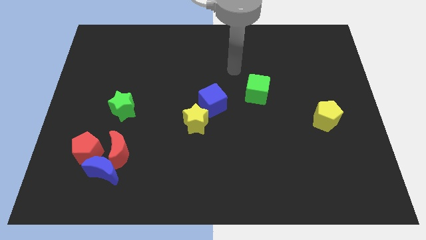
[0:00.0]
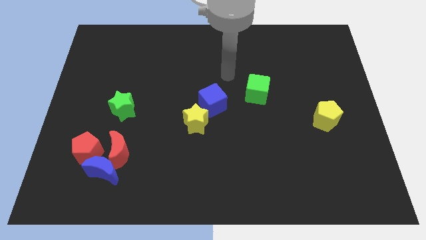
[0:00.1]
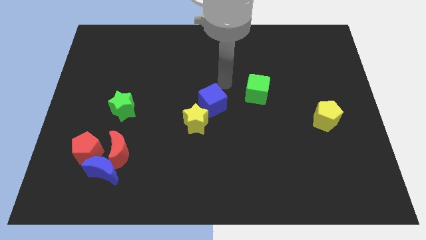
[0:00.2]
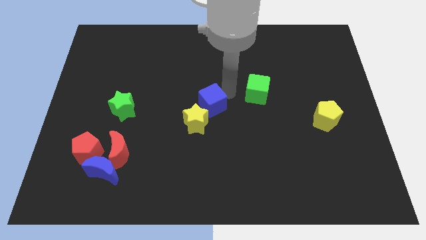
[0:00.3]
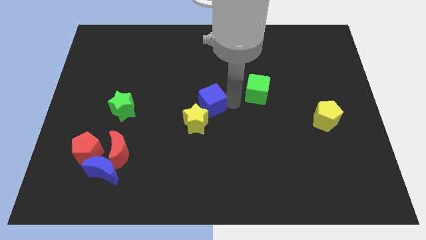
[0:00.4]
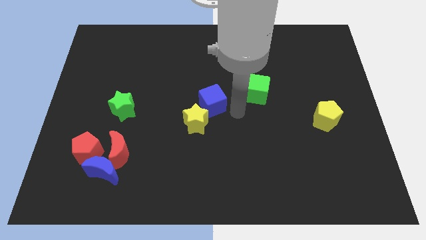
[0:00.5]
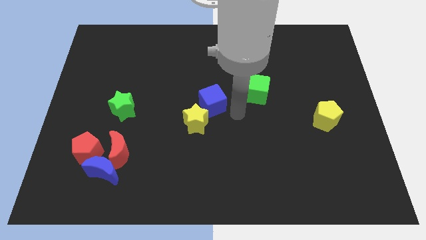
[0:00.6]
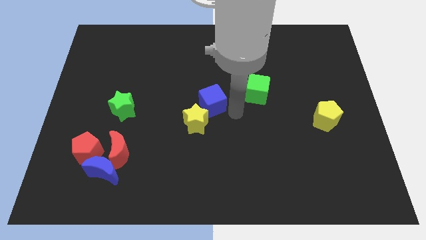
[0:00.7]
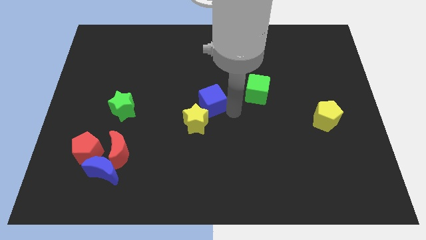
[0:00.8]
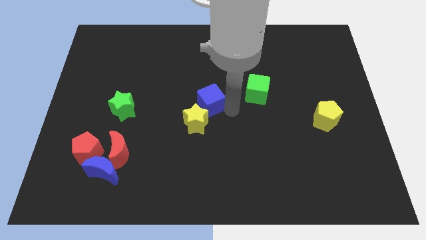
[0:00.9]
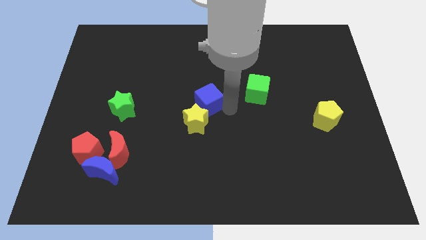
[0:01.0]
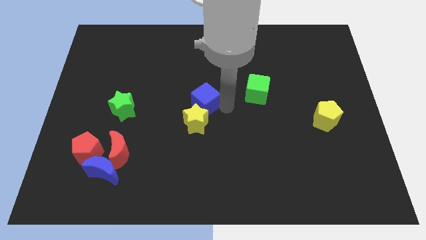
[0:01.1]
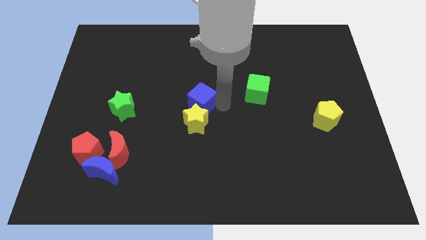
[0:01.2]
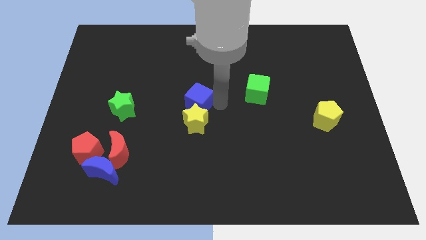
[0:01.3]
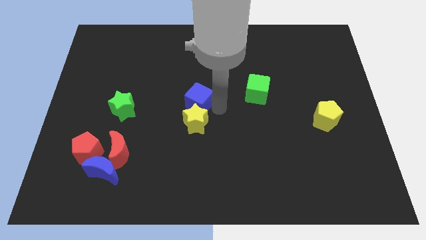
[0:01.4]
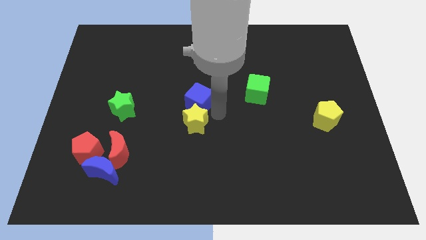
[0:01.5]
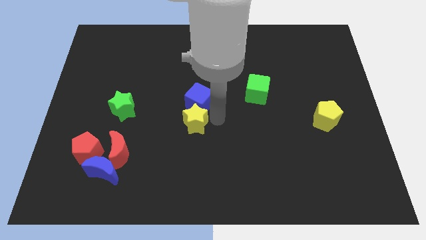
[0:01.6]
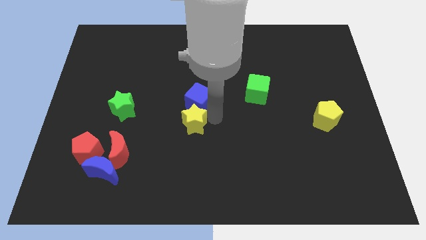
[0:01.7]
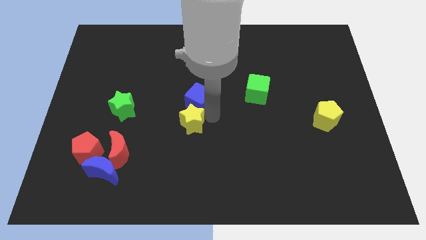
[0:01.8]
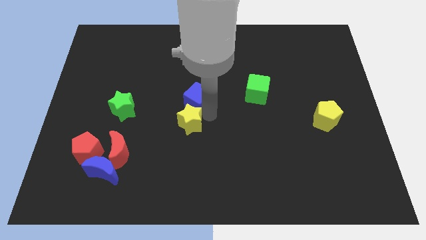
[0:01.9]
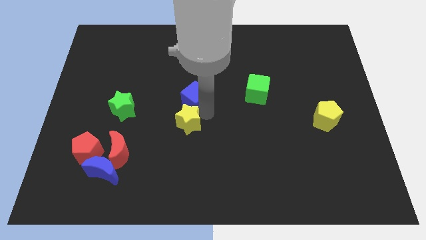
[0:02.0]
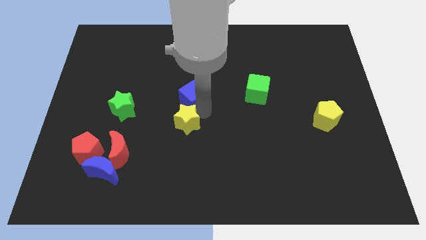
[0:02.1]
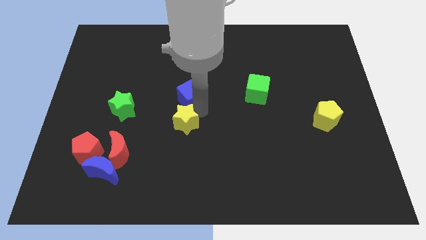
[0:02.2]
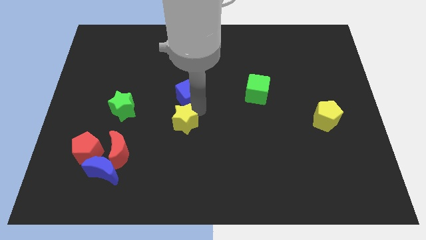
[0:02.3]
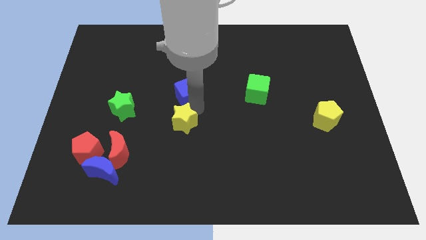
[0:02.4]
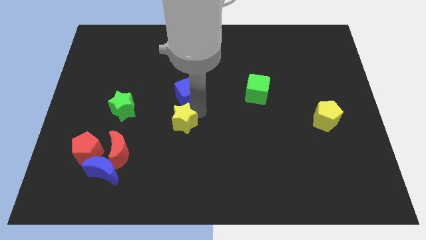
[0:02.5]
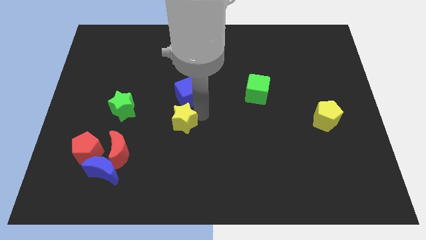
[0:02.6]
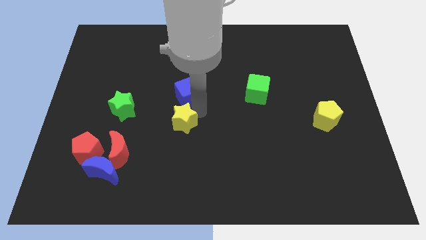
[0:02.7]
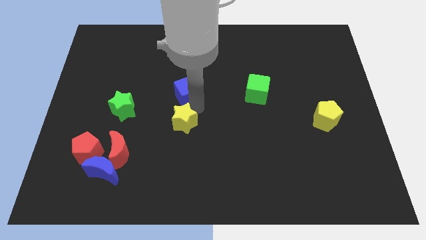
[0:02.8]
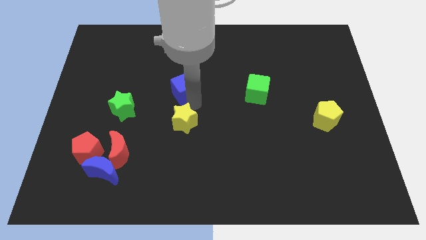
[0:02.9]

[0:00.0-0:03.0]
push the blue cube a little diagonally up and left

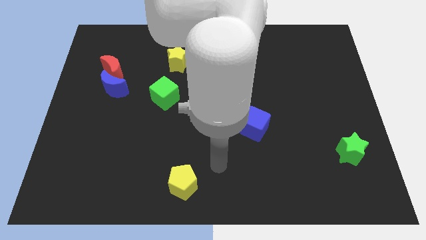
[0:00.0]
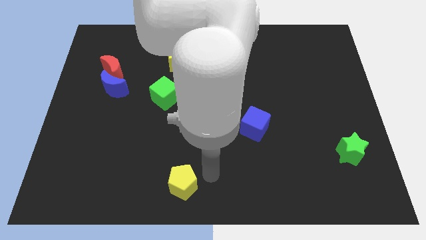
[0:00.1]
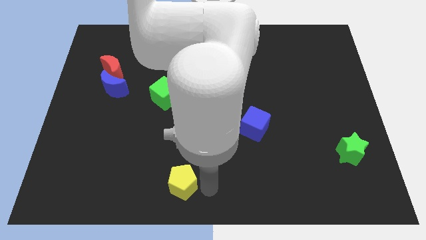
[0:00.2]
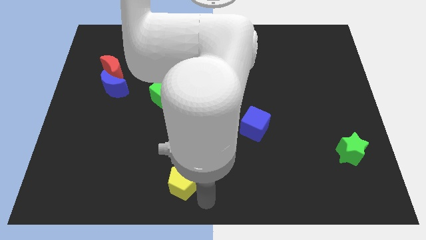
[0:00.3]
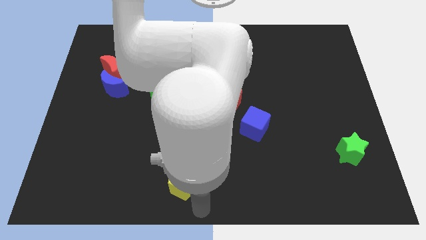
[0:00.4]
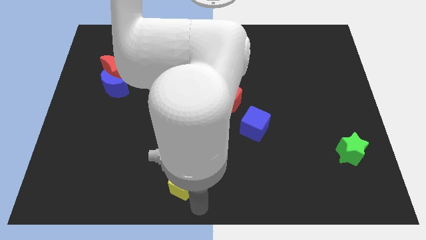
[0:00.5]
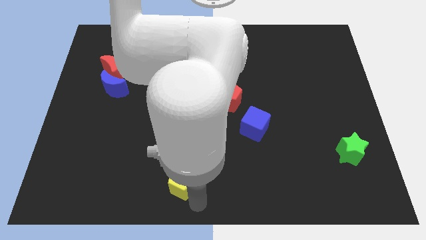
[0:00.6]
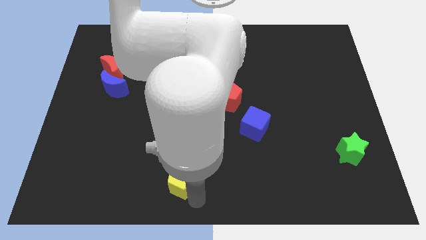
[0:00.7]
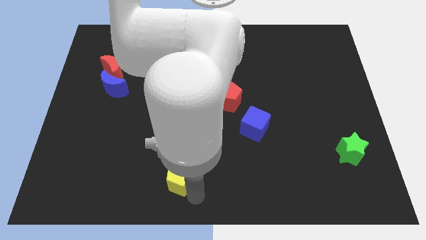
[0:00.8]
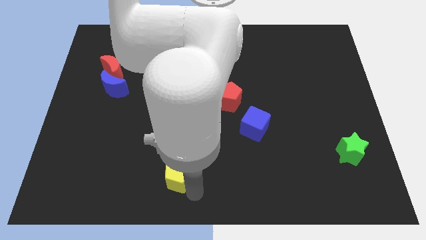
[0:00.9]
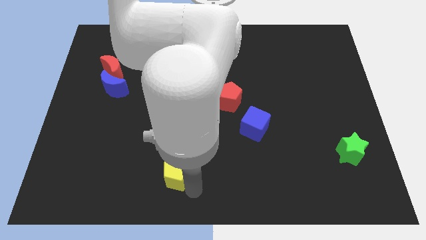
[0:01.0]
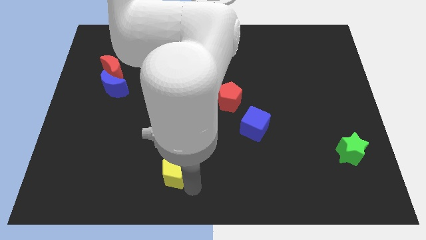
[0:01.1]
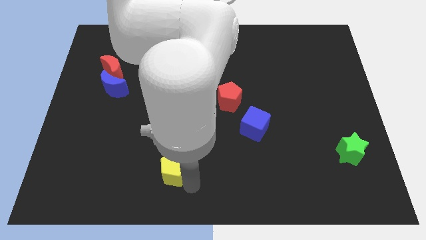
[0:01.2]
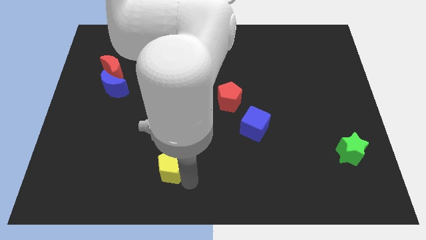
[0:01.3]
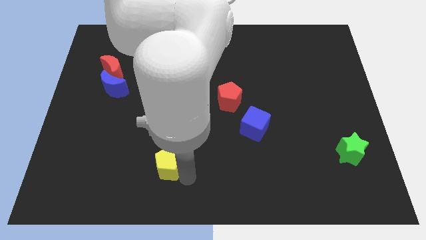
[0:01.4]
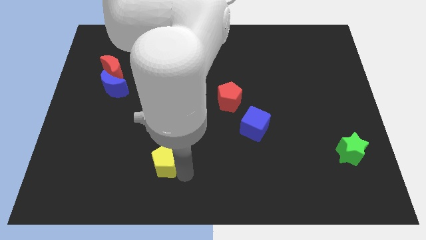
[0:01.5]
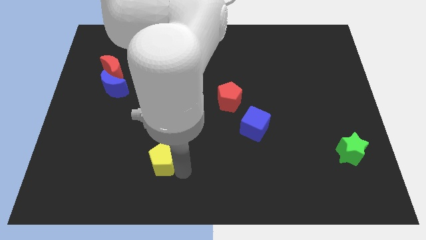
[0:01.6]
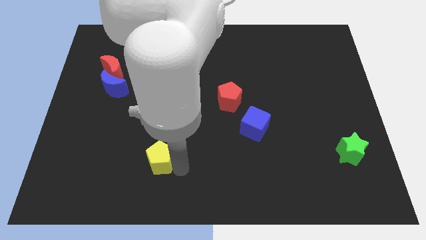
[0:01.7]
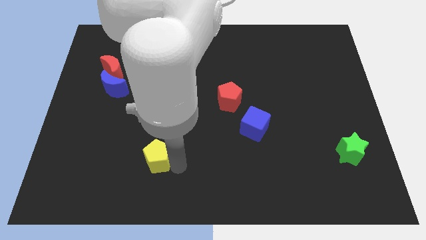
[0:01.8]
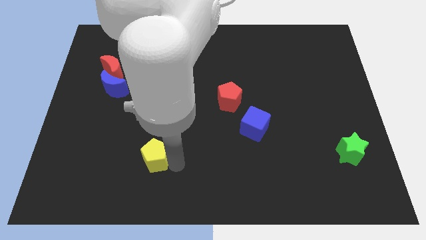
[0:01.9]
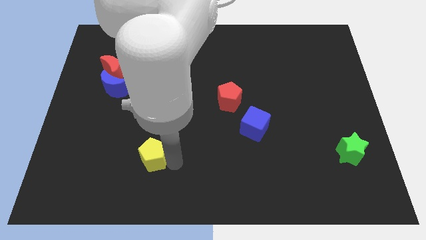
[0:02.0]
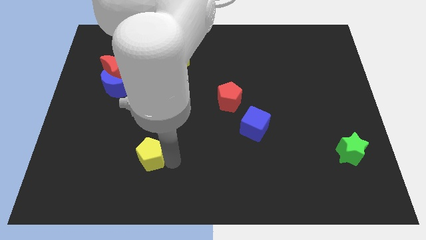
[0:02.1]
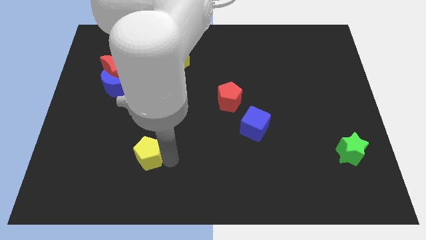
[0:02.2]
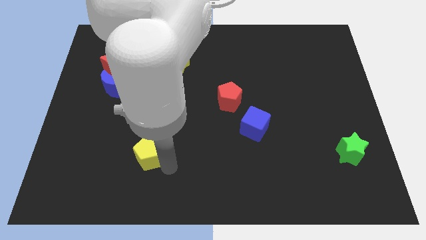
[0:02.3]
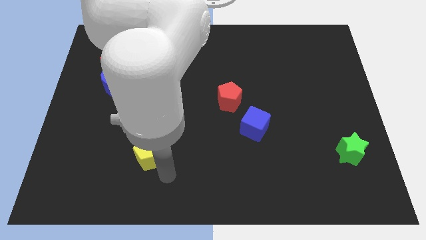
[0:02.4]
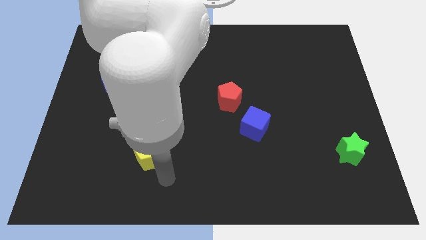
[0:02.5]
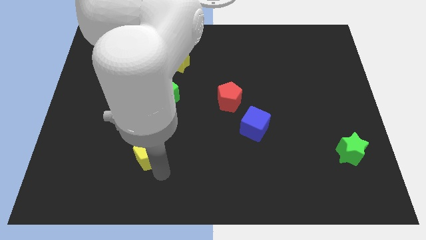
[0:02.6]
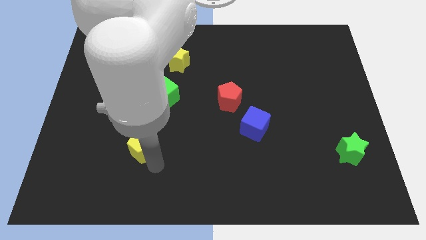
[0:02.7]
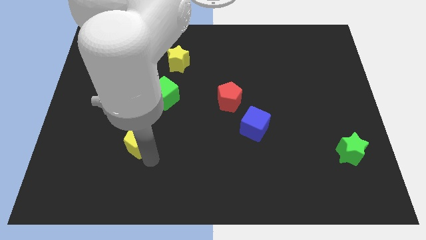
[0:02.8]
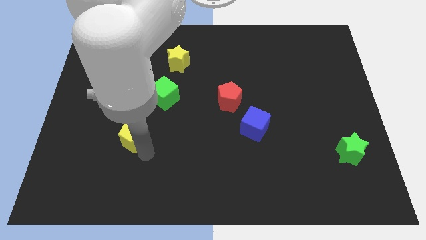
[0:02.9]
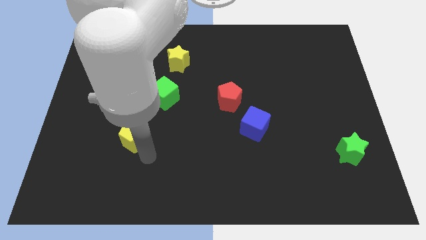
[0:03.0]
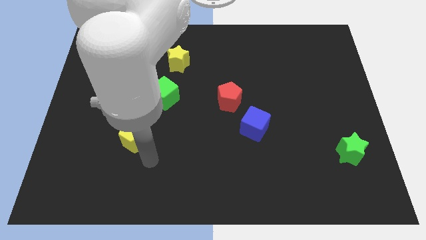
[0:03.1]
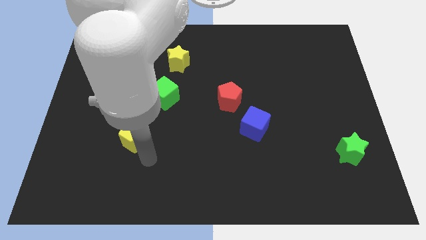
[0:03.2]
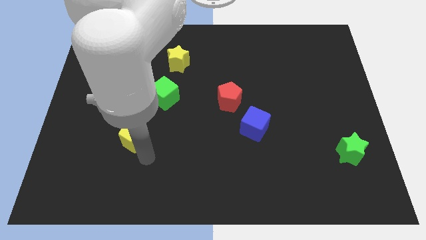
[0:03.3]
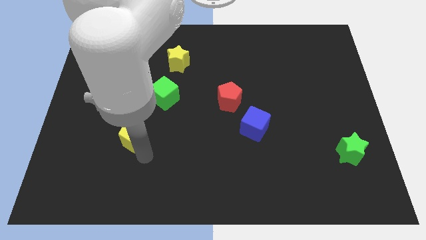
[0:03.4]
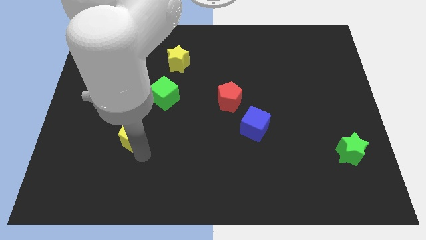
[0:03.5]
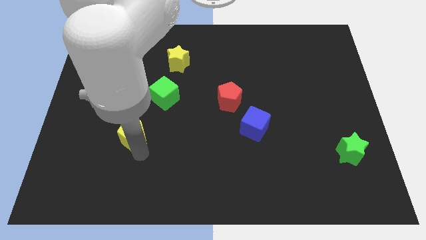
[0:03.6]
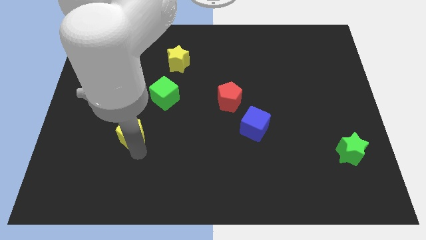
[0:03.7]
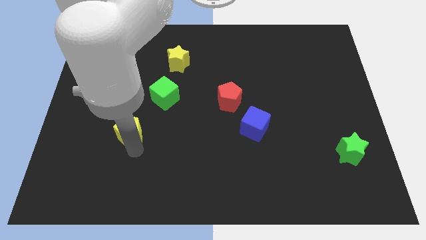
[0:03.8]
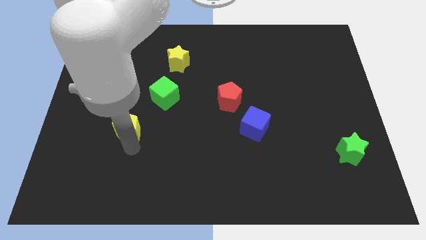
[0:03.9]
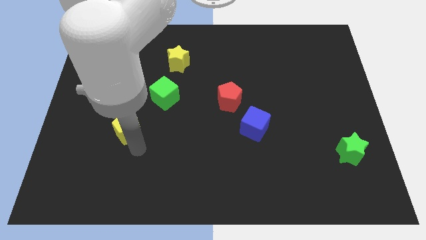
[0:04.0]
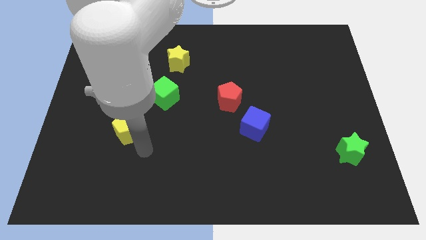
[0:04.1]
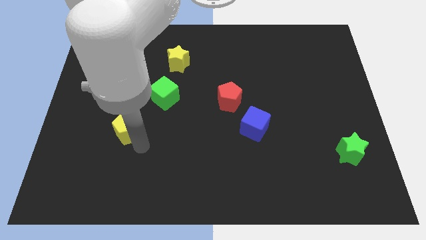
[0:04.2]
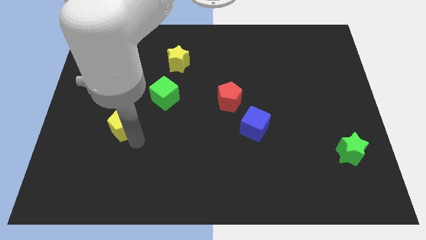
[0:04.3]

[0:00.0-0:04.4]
push the yellow pentagon upwards and to the left diagonally

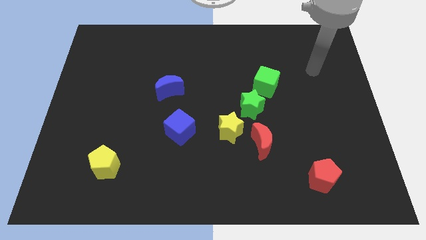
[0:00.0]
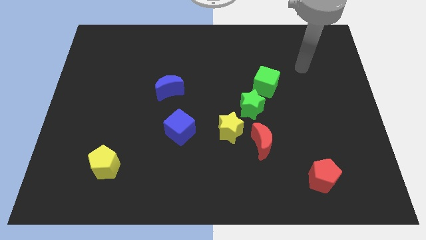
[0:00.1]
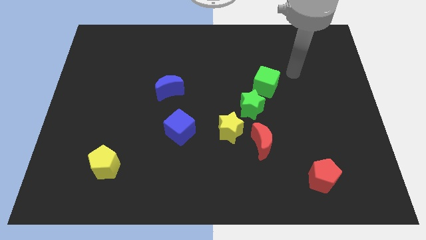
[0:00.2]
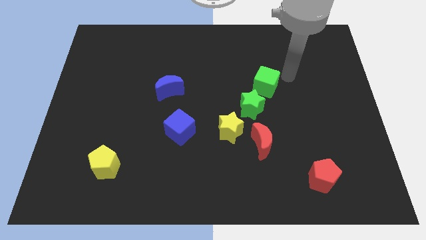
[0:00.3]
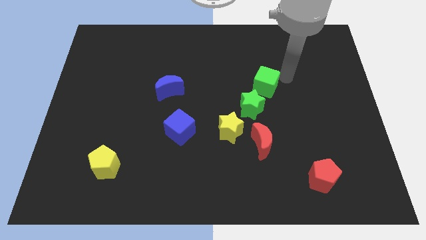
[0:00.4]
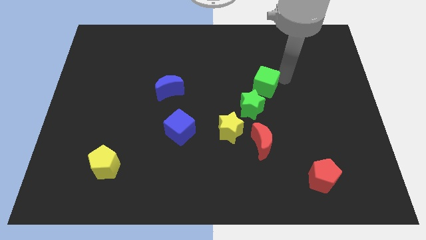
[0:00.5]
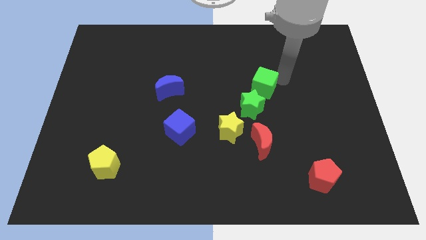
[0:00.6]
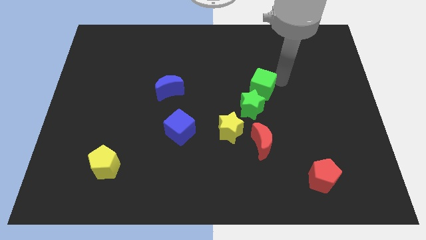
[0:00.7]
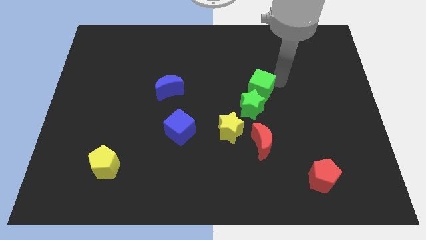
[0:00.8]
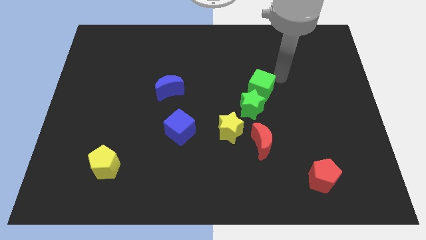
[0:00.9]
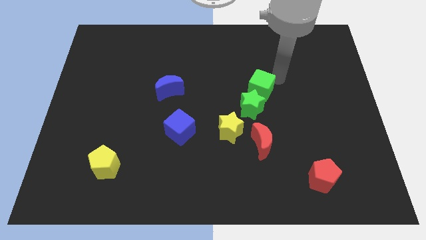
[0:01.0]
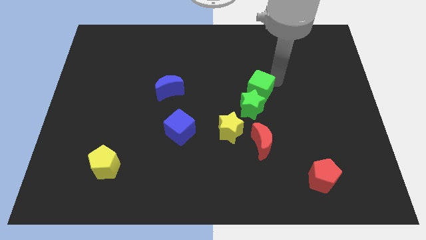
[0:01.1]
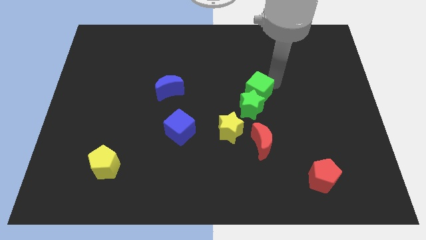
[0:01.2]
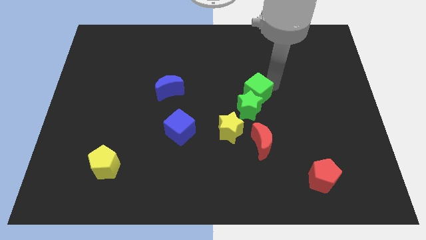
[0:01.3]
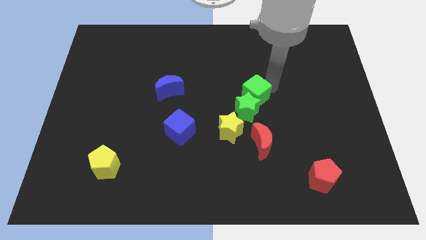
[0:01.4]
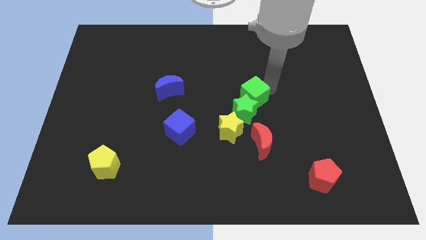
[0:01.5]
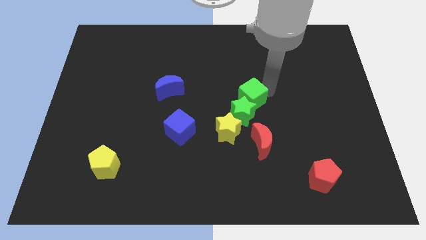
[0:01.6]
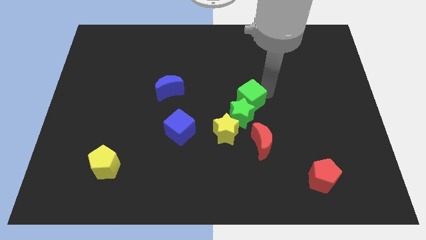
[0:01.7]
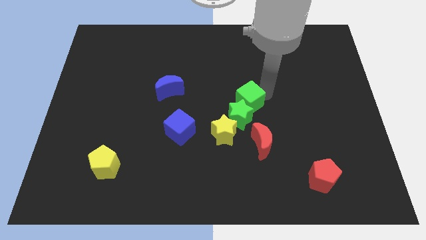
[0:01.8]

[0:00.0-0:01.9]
slide the green cube a bit downwards and left diagonally
